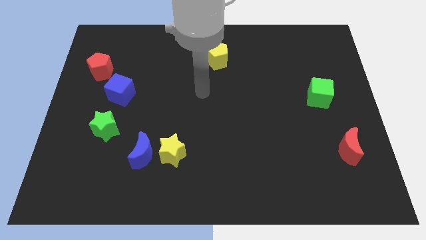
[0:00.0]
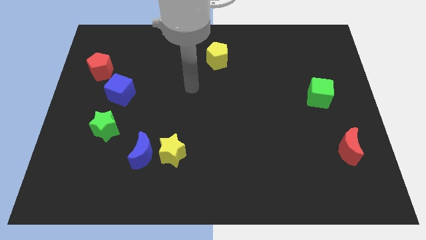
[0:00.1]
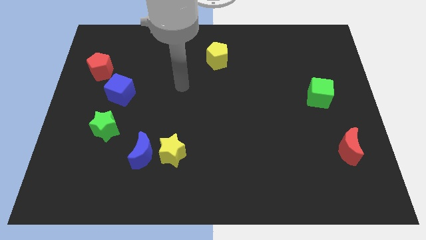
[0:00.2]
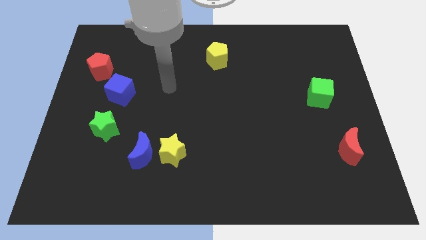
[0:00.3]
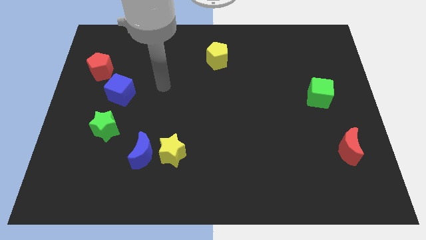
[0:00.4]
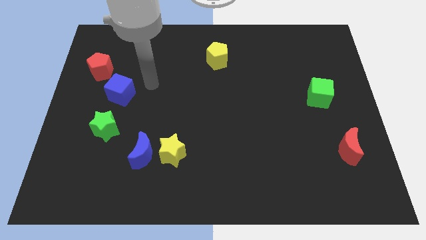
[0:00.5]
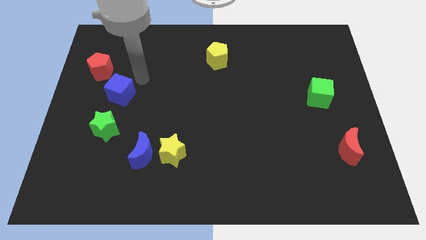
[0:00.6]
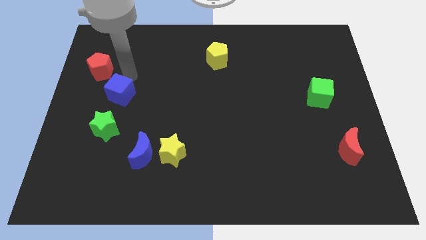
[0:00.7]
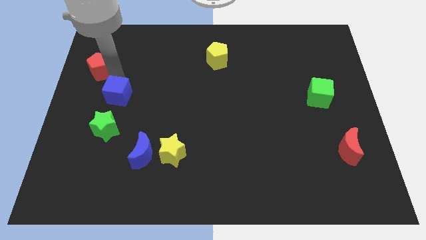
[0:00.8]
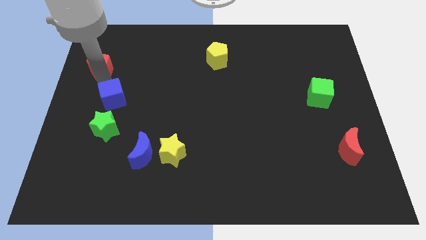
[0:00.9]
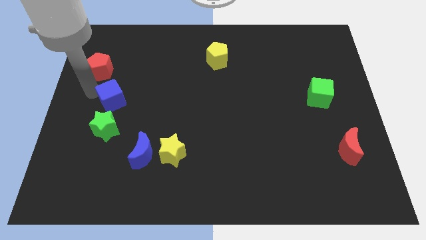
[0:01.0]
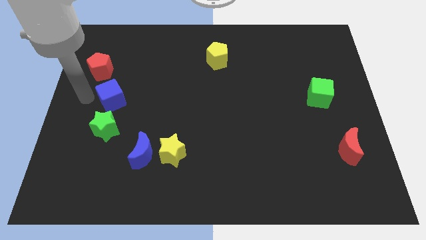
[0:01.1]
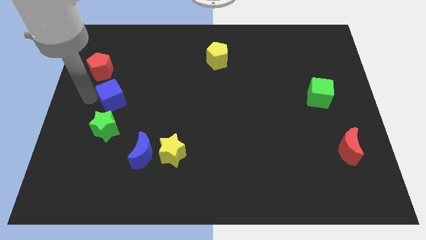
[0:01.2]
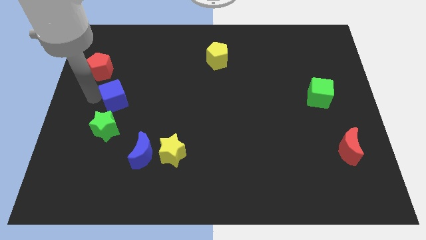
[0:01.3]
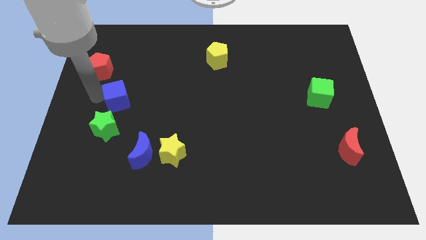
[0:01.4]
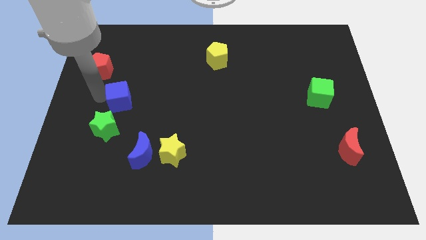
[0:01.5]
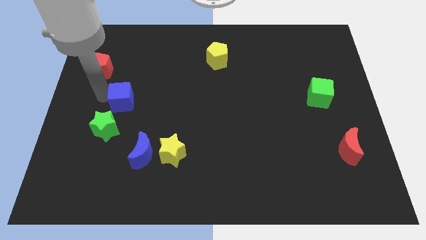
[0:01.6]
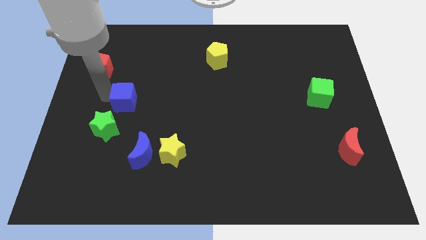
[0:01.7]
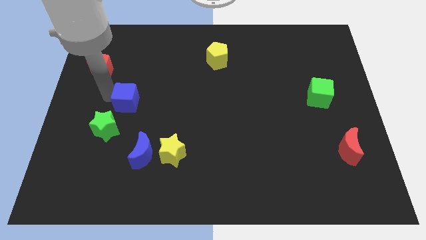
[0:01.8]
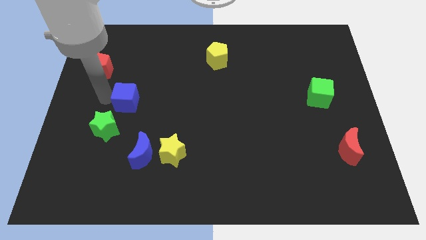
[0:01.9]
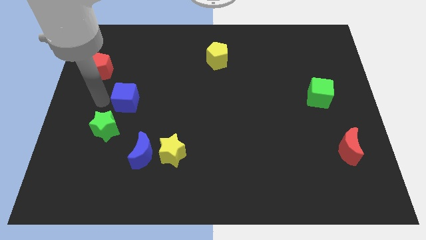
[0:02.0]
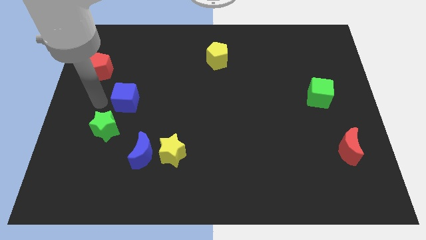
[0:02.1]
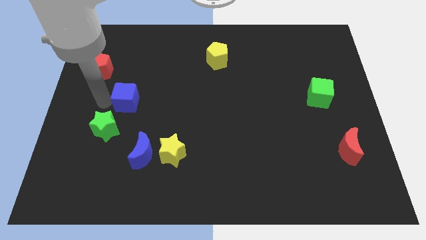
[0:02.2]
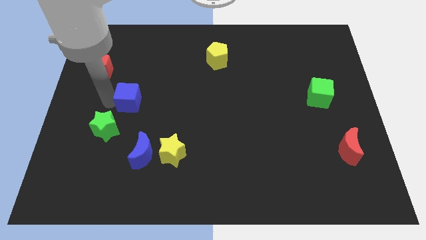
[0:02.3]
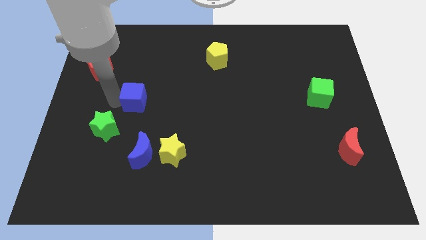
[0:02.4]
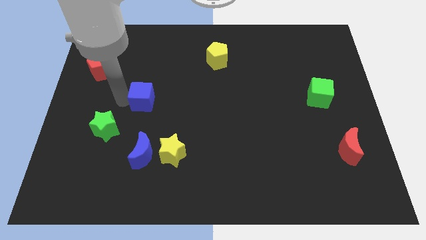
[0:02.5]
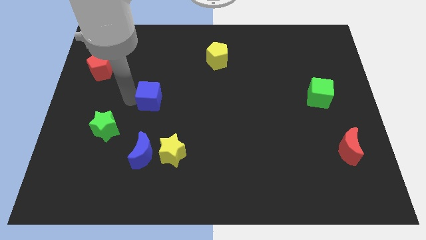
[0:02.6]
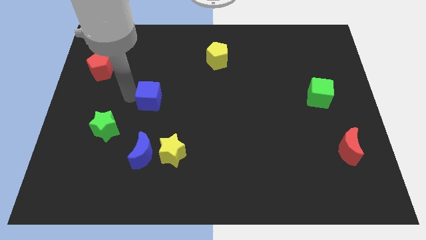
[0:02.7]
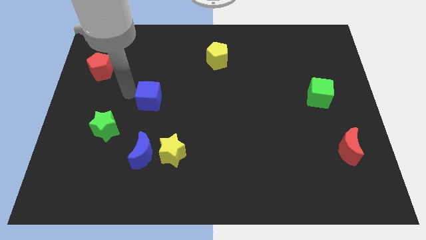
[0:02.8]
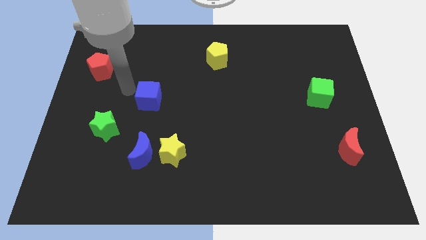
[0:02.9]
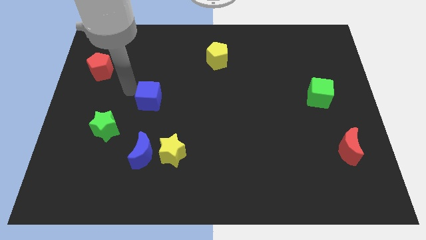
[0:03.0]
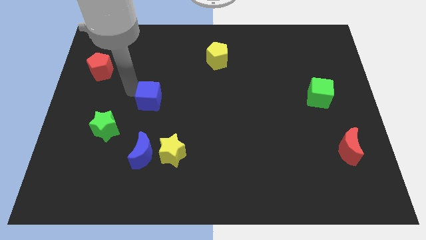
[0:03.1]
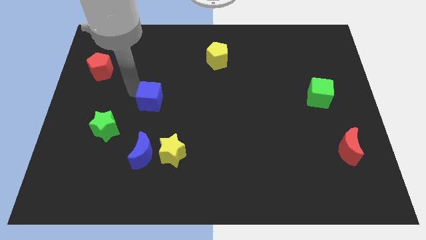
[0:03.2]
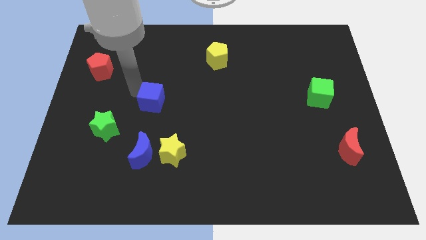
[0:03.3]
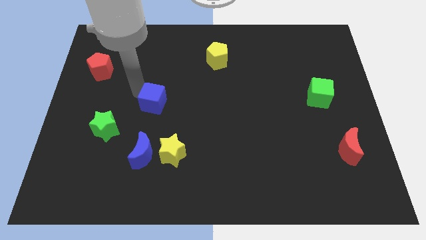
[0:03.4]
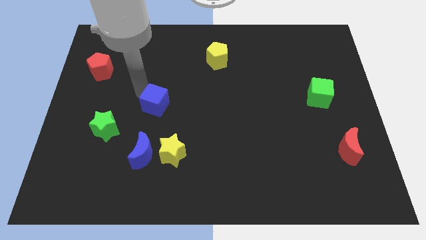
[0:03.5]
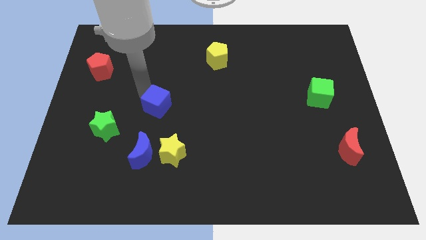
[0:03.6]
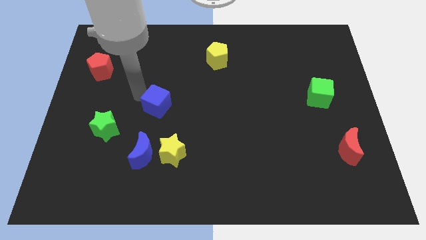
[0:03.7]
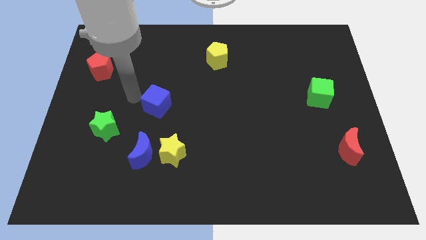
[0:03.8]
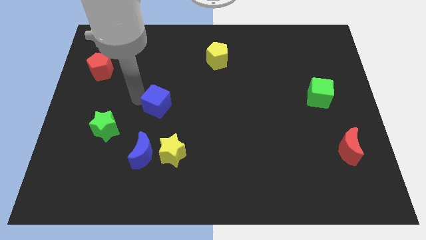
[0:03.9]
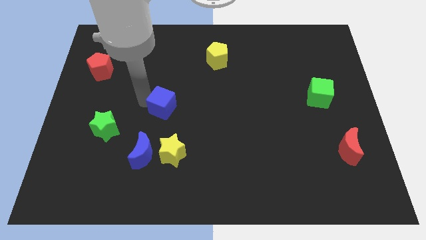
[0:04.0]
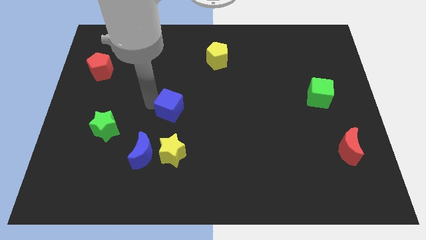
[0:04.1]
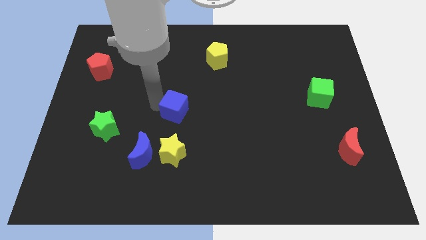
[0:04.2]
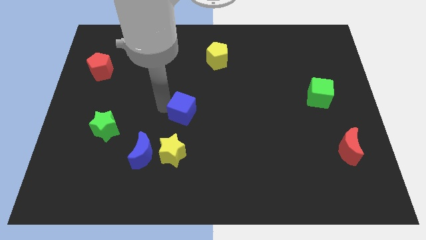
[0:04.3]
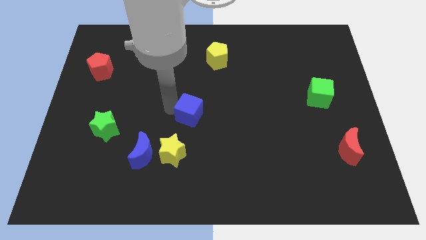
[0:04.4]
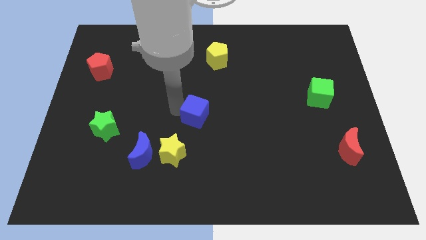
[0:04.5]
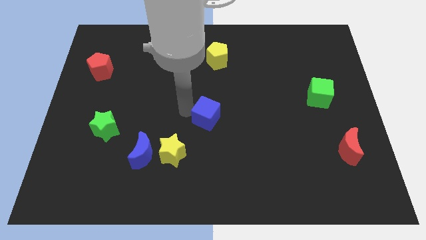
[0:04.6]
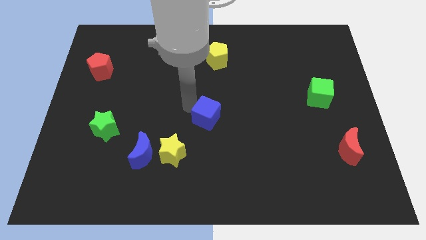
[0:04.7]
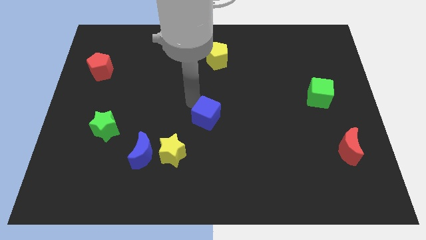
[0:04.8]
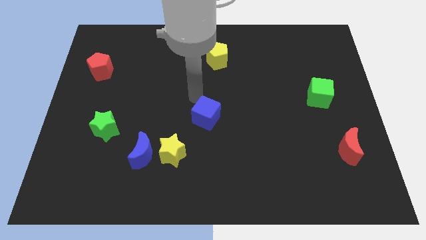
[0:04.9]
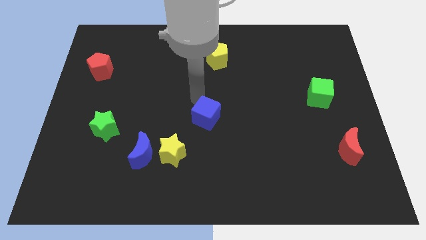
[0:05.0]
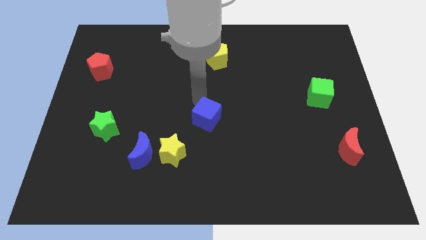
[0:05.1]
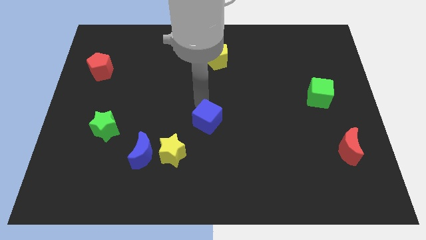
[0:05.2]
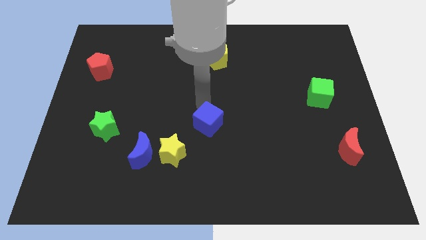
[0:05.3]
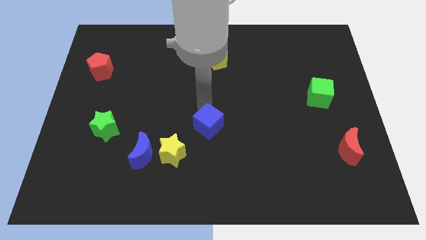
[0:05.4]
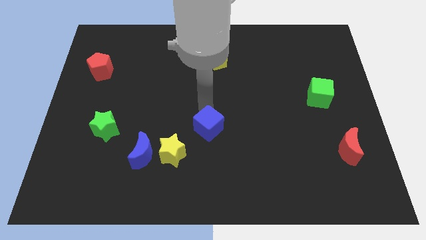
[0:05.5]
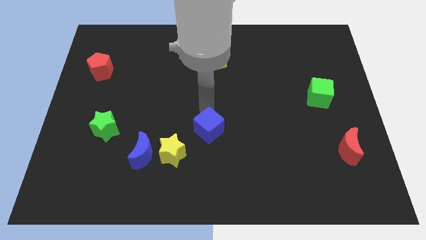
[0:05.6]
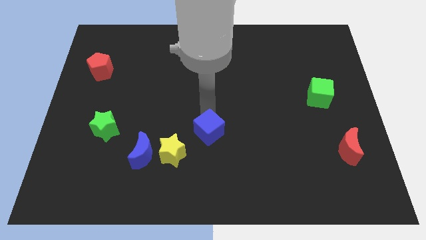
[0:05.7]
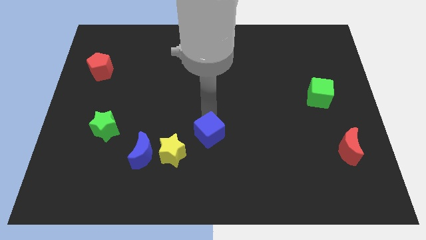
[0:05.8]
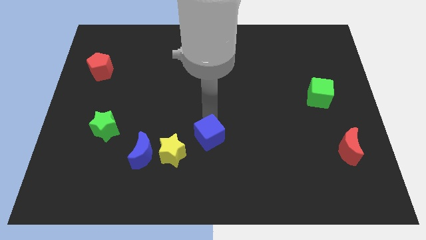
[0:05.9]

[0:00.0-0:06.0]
push the blue cube to the right side of the yellow star
